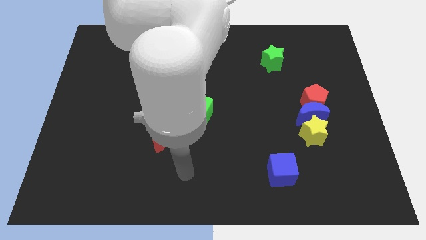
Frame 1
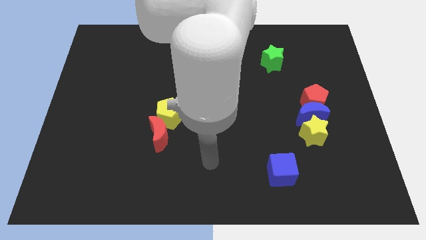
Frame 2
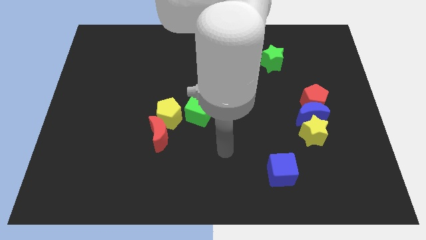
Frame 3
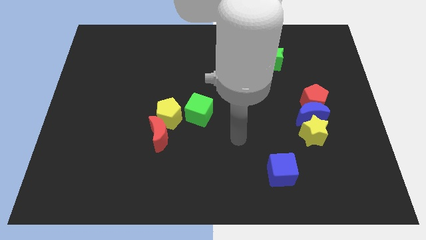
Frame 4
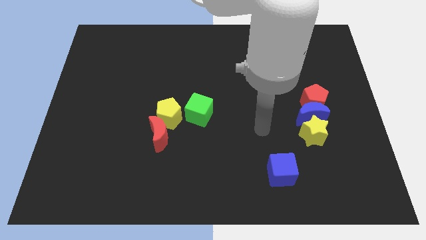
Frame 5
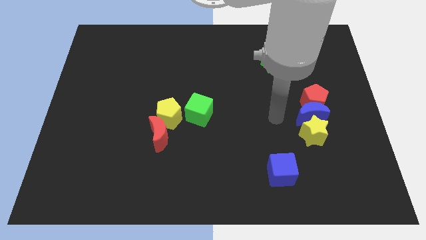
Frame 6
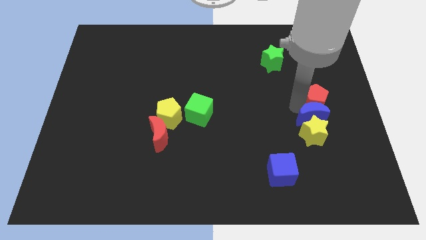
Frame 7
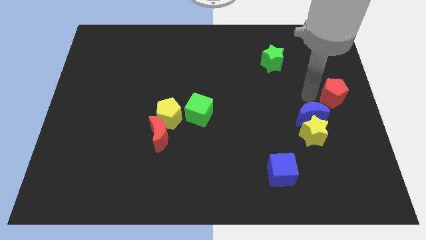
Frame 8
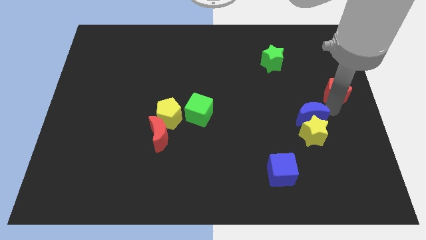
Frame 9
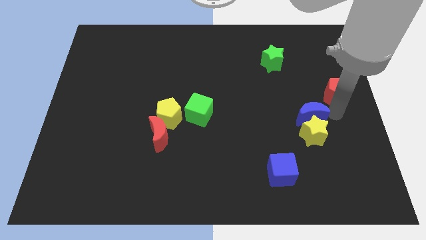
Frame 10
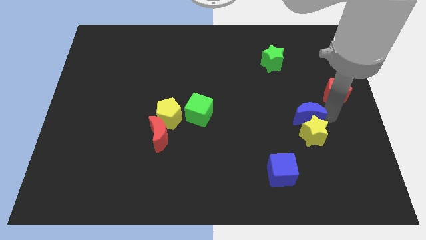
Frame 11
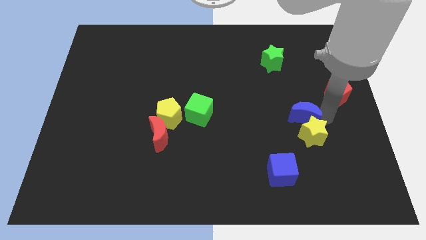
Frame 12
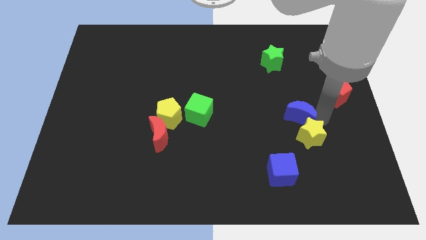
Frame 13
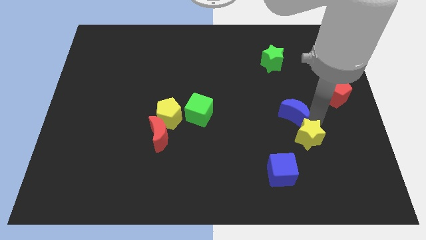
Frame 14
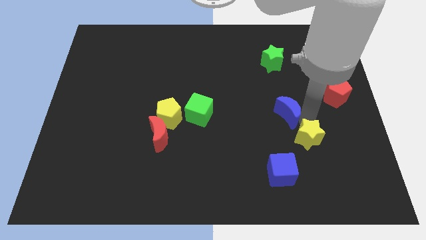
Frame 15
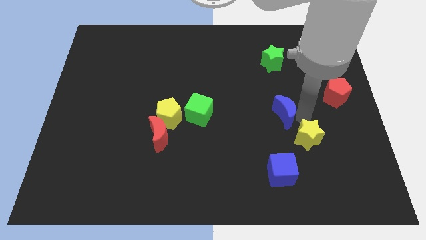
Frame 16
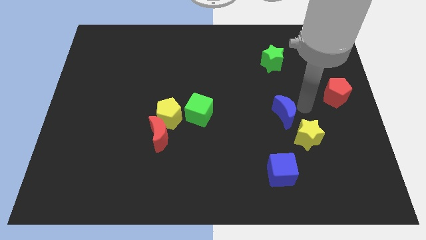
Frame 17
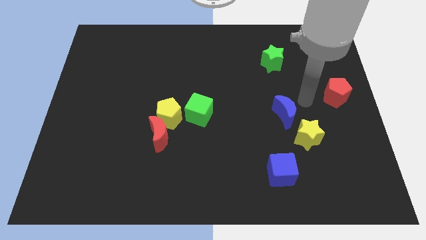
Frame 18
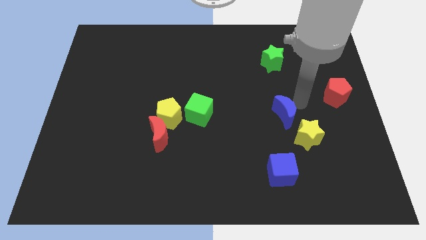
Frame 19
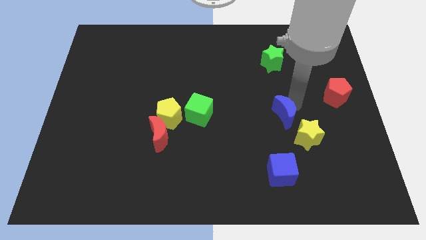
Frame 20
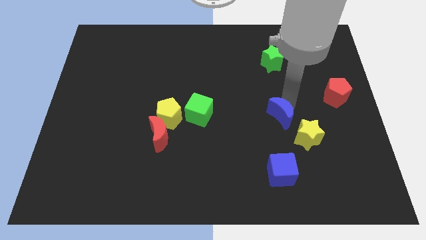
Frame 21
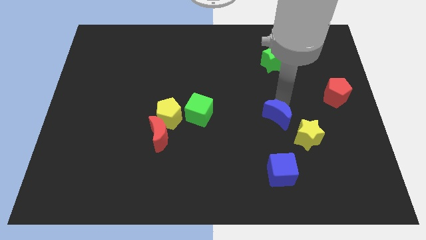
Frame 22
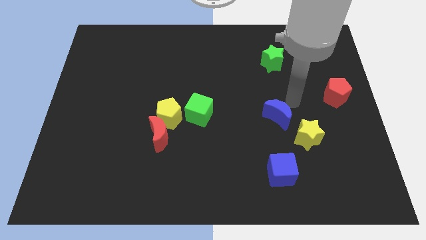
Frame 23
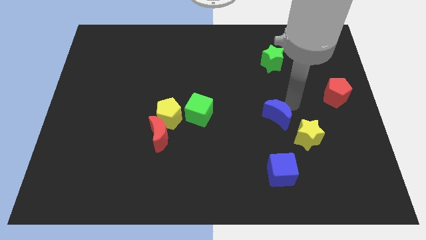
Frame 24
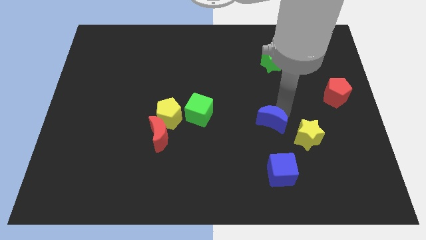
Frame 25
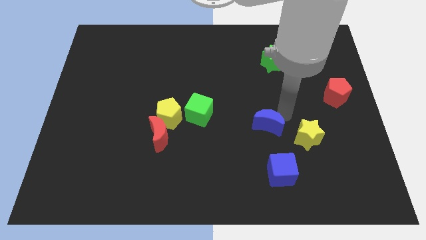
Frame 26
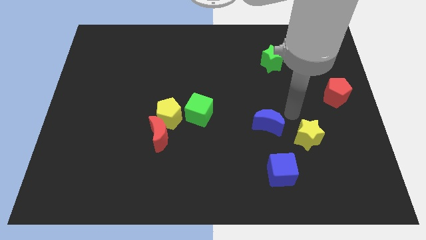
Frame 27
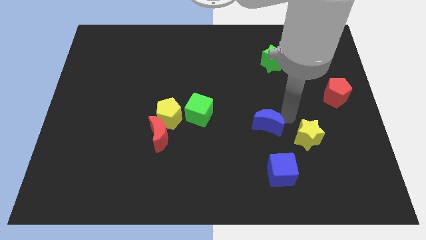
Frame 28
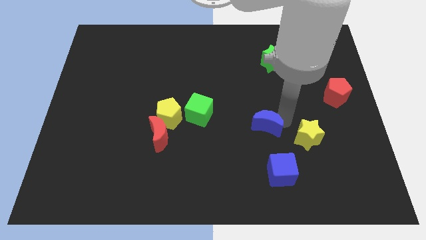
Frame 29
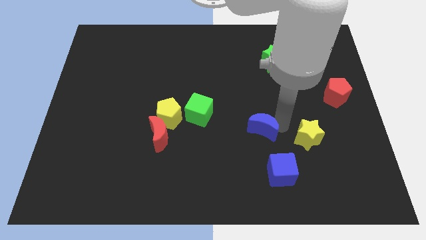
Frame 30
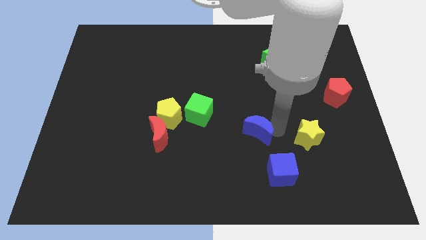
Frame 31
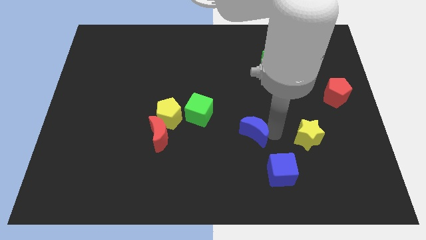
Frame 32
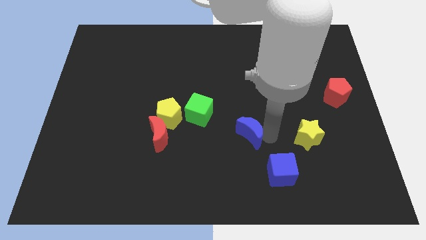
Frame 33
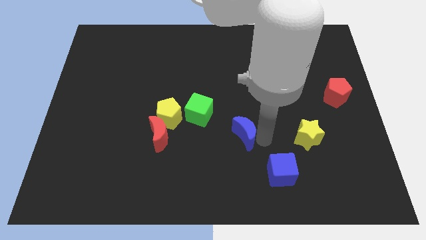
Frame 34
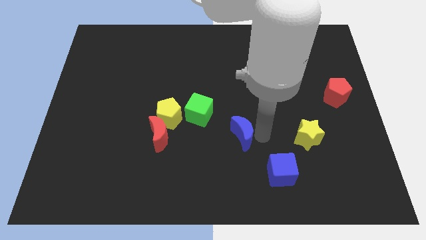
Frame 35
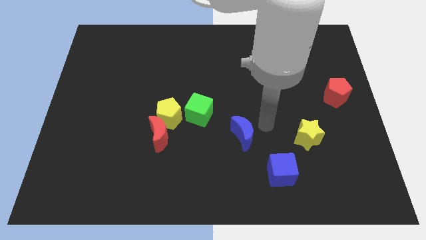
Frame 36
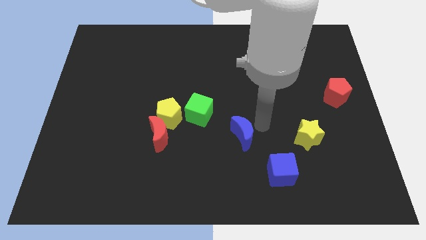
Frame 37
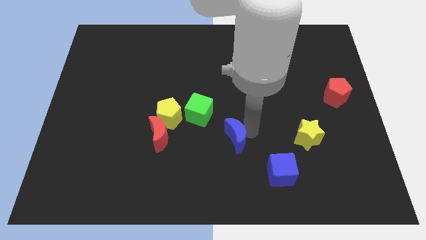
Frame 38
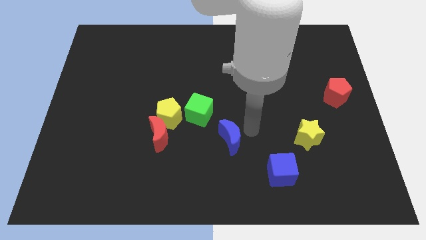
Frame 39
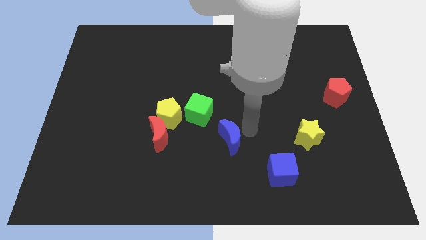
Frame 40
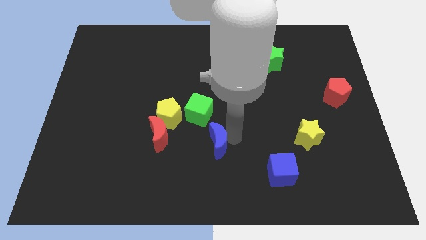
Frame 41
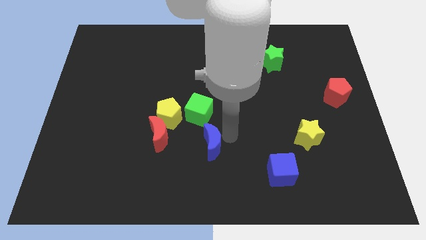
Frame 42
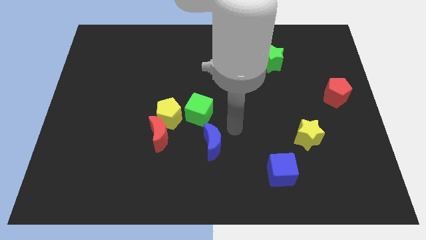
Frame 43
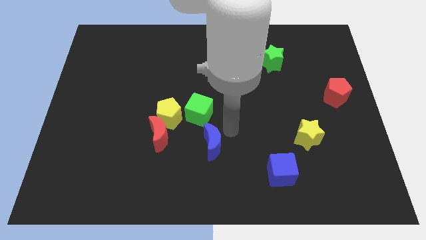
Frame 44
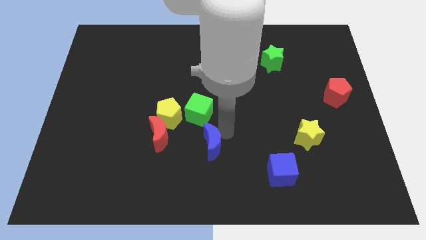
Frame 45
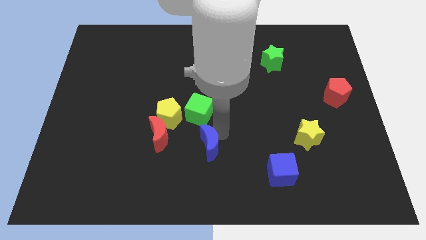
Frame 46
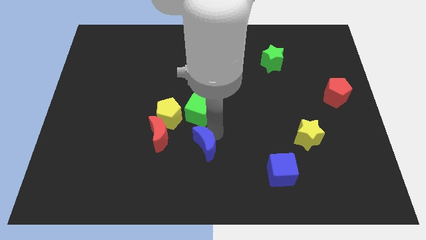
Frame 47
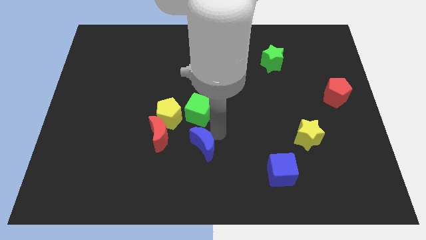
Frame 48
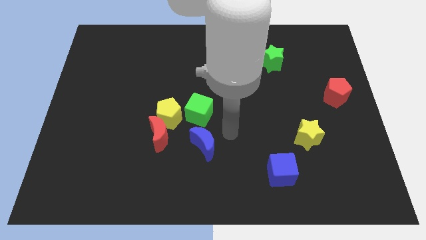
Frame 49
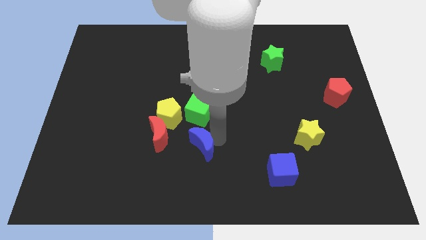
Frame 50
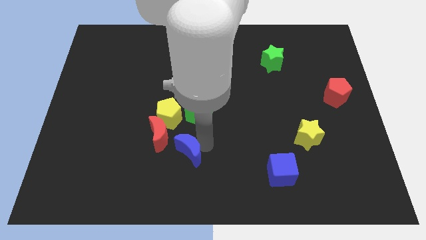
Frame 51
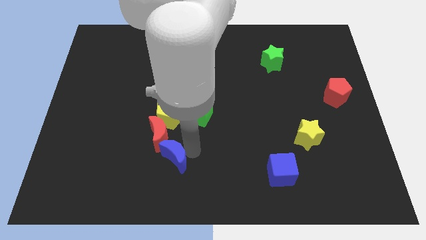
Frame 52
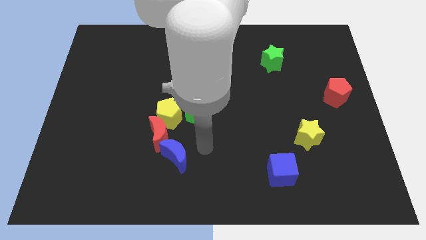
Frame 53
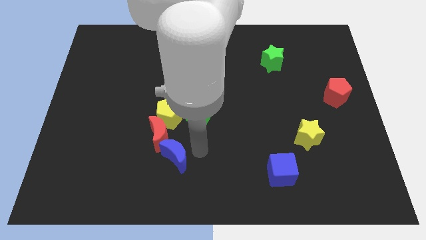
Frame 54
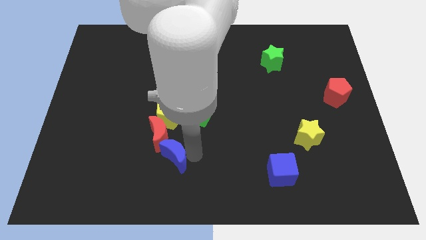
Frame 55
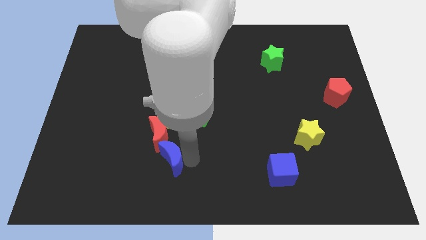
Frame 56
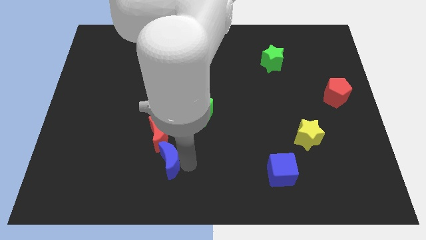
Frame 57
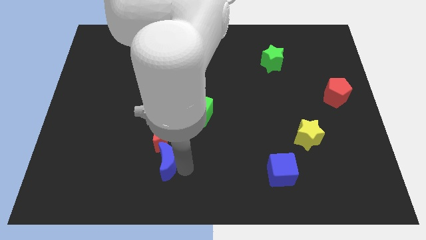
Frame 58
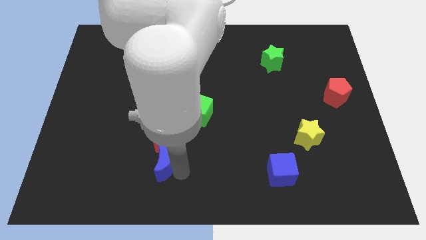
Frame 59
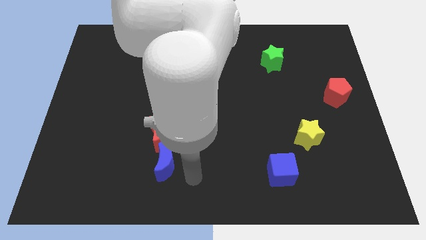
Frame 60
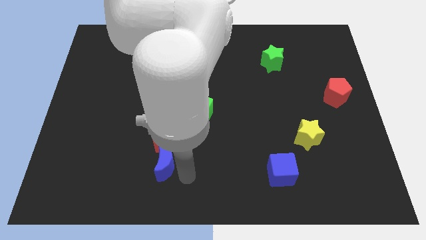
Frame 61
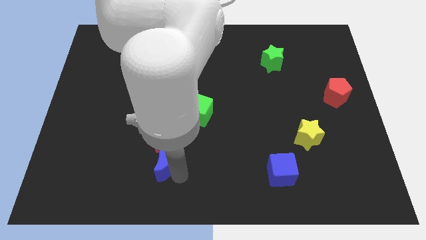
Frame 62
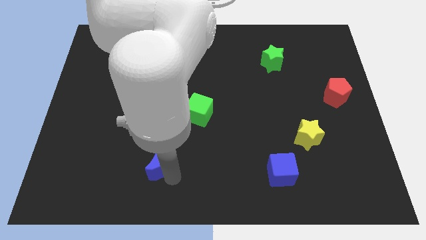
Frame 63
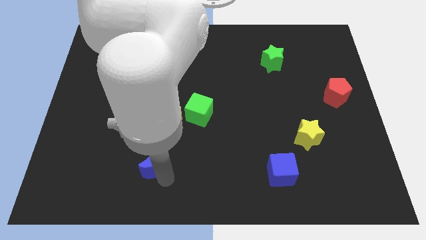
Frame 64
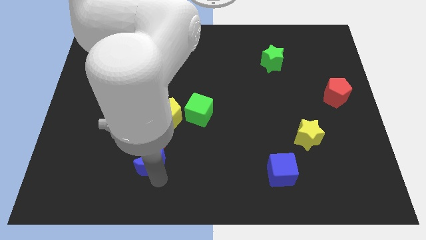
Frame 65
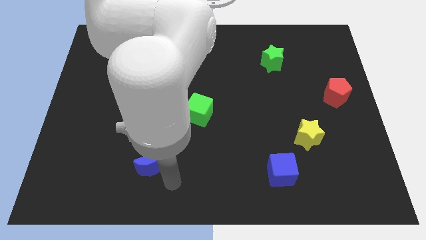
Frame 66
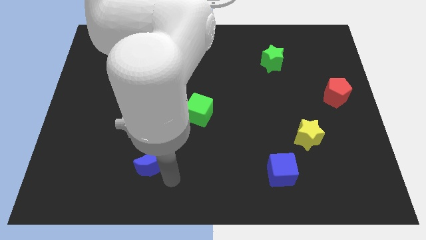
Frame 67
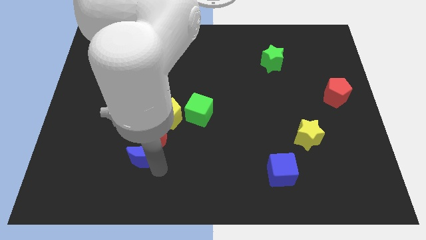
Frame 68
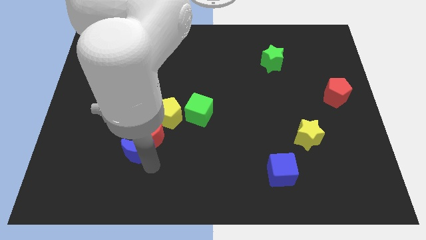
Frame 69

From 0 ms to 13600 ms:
push the blue moon to the bottom left of the yellow pentagon
